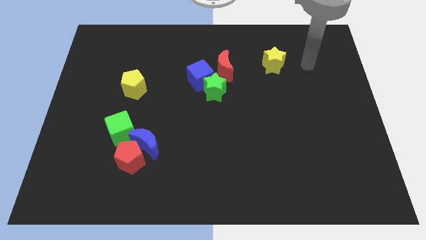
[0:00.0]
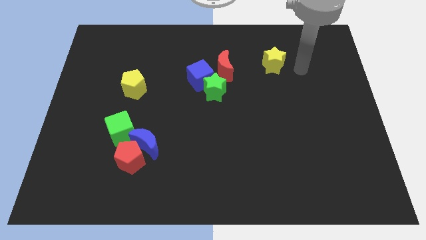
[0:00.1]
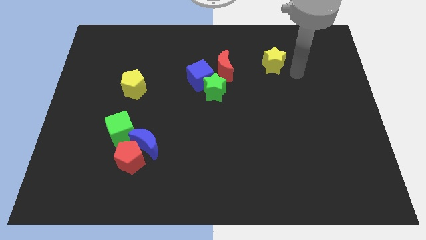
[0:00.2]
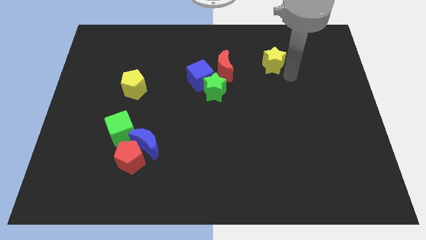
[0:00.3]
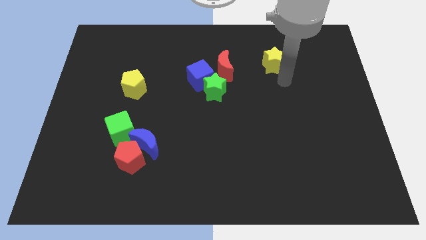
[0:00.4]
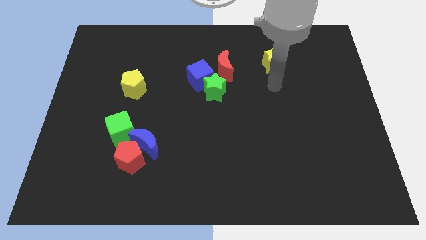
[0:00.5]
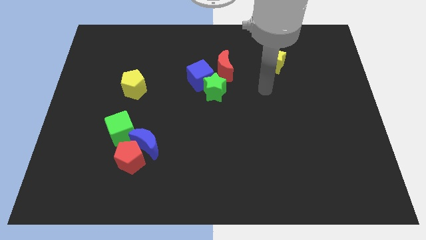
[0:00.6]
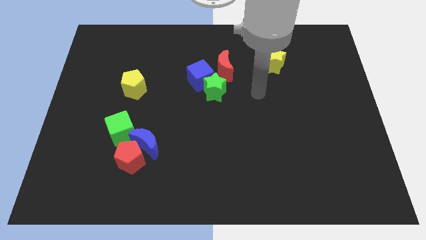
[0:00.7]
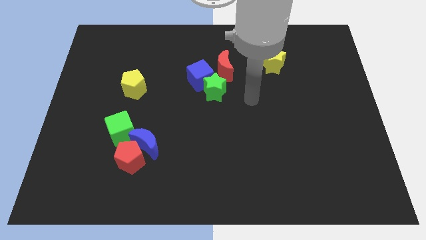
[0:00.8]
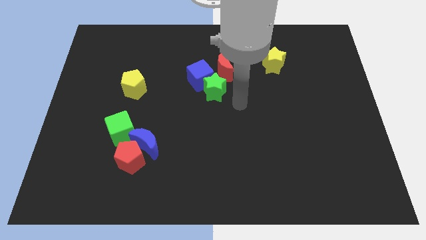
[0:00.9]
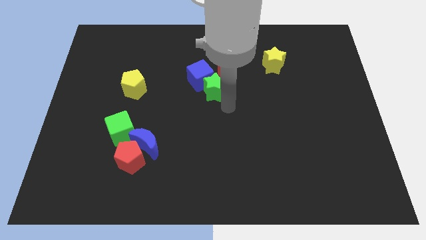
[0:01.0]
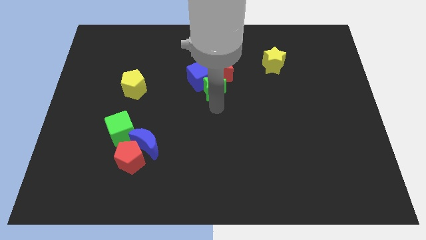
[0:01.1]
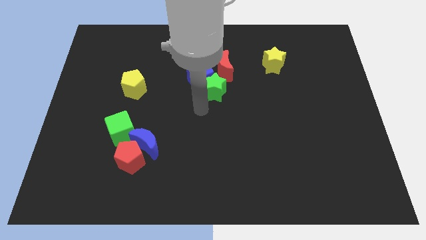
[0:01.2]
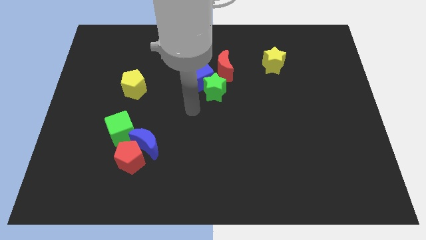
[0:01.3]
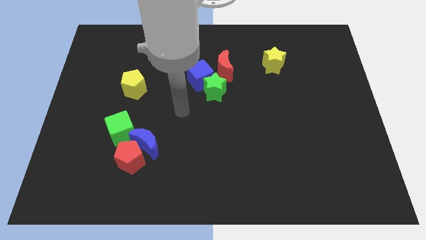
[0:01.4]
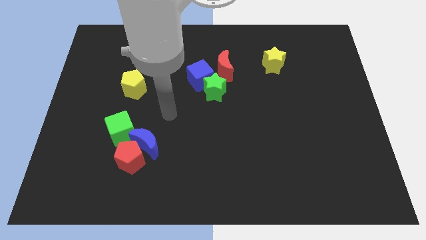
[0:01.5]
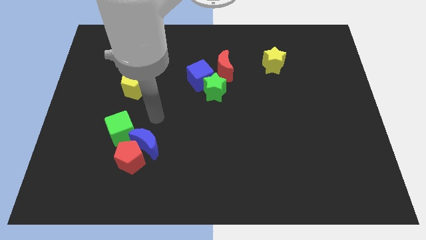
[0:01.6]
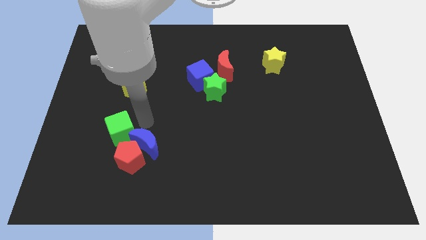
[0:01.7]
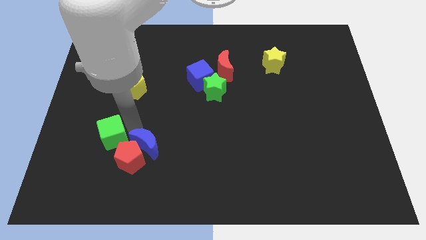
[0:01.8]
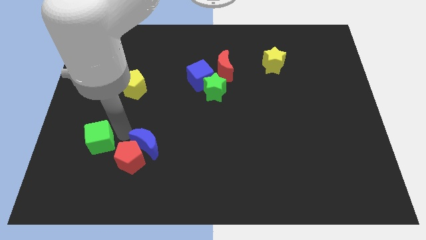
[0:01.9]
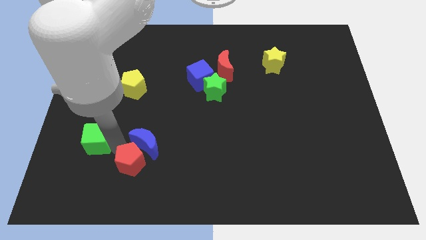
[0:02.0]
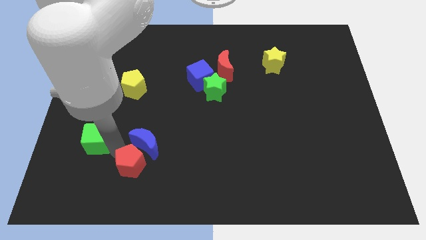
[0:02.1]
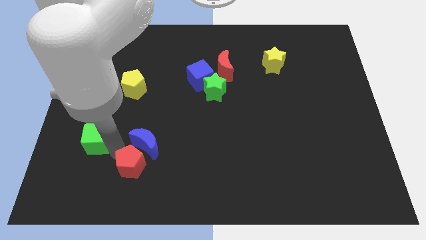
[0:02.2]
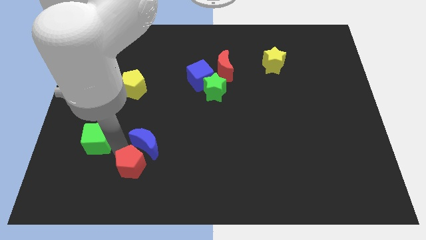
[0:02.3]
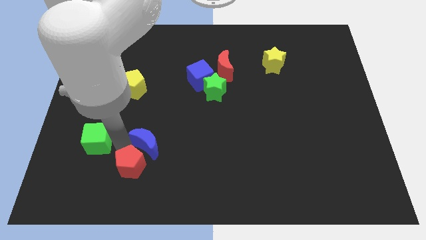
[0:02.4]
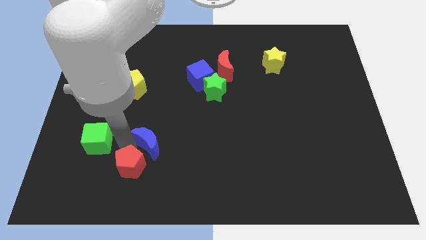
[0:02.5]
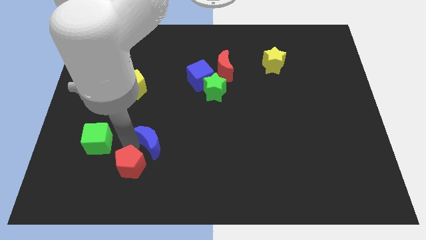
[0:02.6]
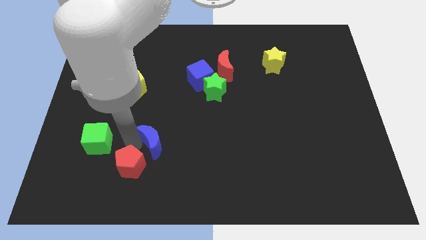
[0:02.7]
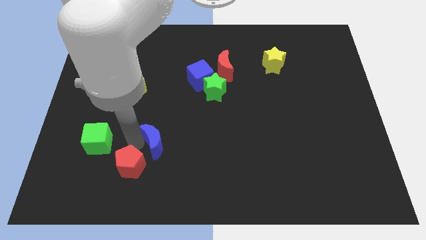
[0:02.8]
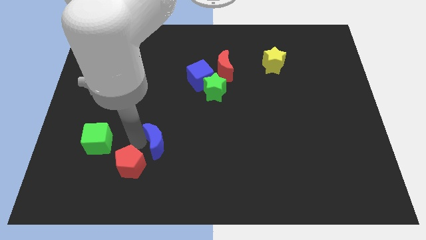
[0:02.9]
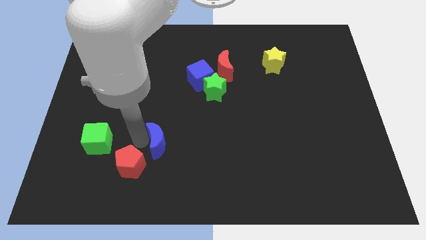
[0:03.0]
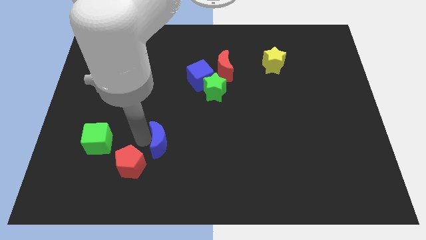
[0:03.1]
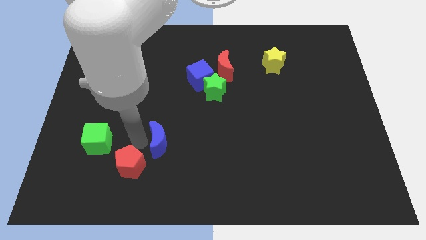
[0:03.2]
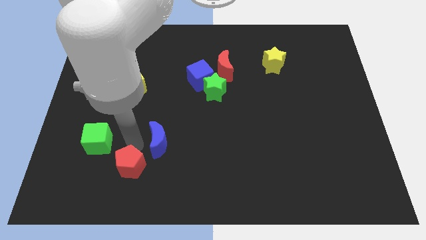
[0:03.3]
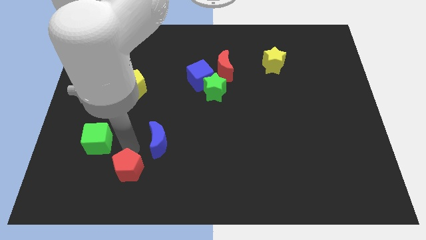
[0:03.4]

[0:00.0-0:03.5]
move the blue moon away from the red pentagon and green cube

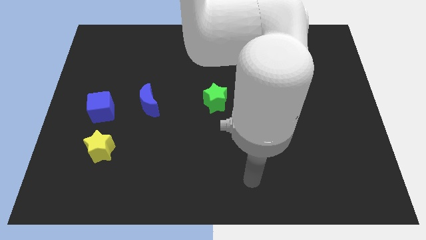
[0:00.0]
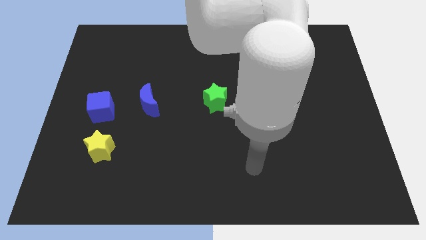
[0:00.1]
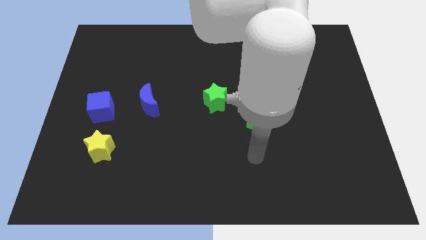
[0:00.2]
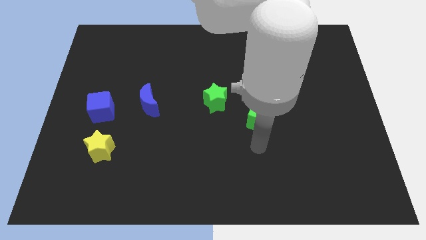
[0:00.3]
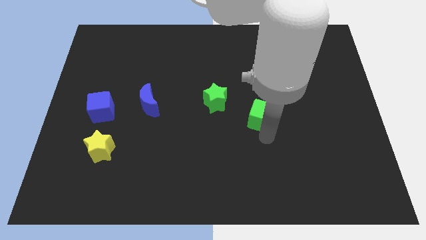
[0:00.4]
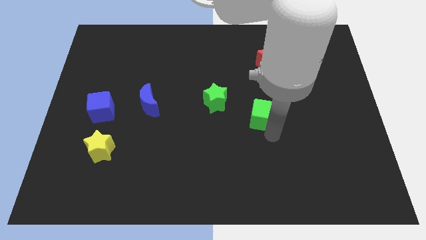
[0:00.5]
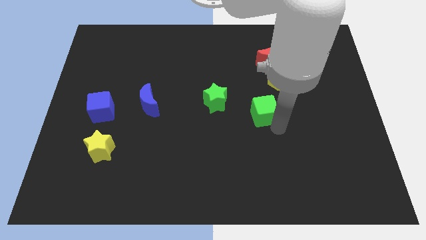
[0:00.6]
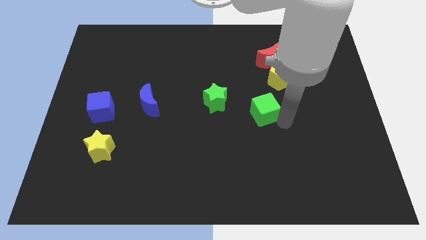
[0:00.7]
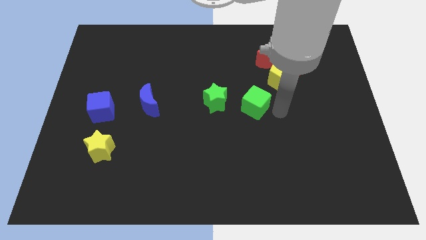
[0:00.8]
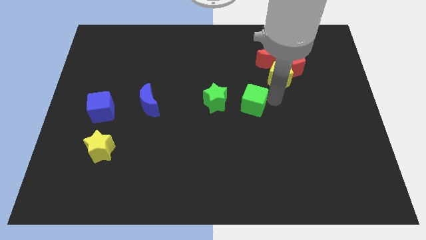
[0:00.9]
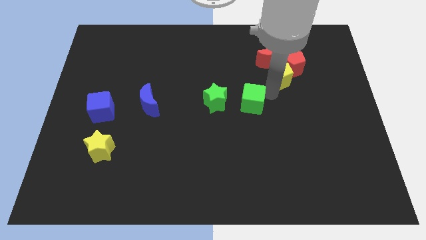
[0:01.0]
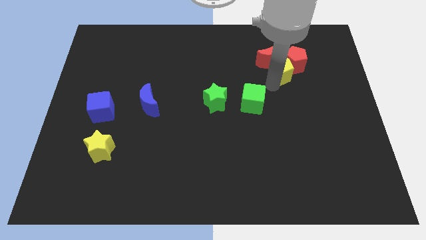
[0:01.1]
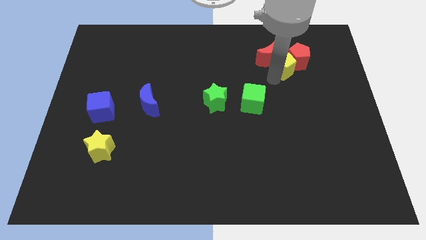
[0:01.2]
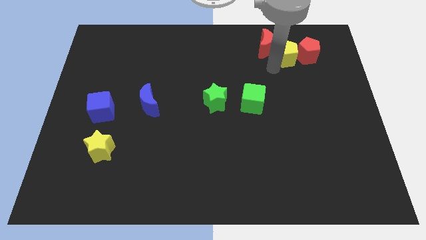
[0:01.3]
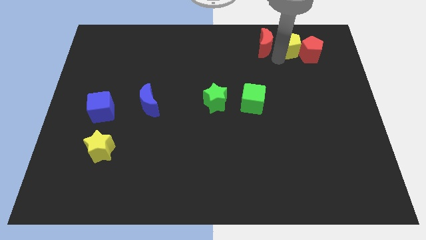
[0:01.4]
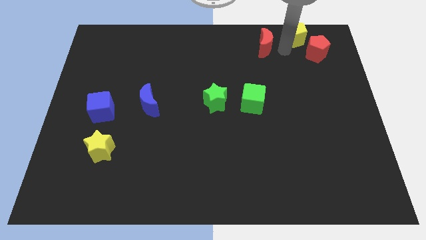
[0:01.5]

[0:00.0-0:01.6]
move the red pentagon away from the yellow pentagon and red moon

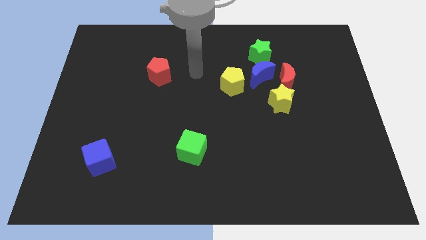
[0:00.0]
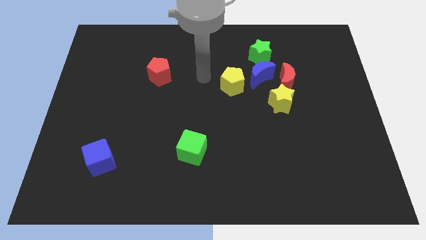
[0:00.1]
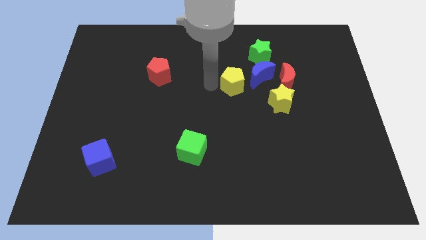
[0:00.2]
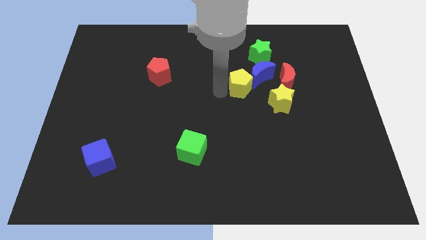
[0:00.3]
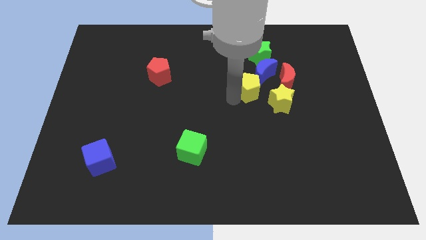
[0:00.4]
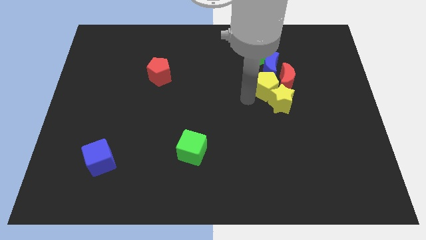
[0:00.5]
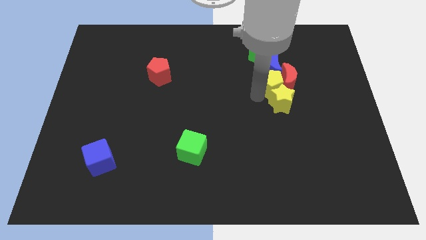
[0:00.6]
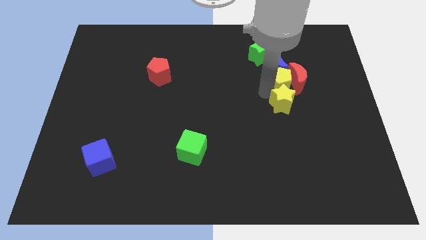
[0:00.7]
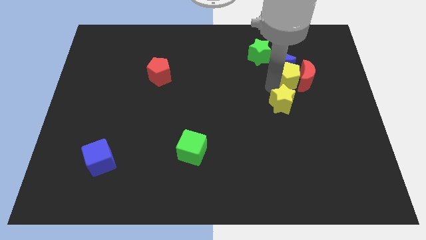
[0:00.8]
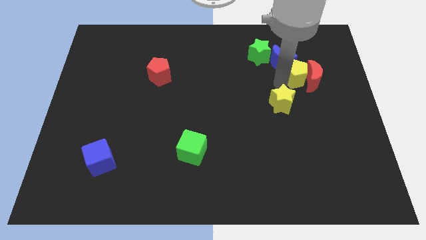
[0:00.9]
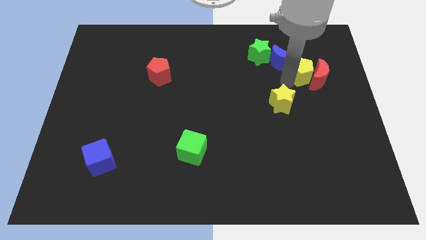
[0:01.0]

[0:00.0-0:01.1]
move the red moon away from the blue moon and yellow star

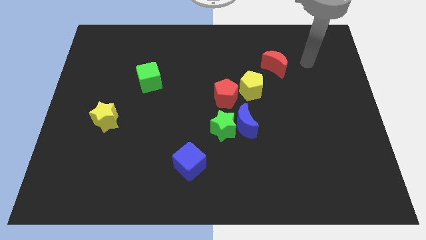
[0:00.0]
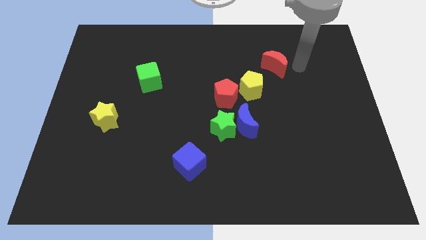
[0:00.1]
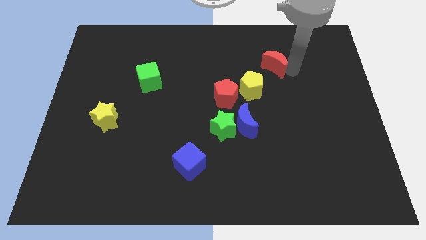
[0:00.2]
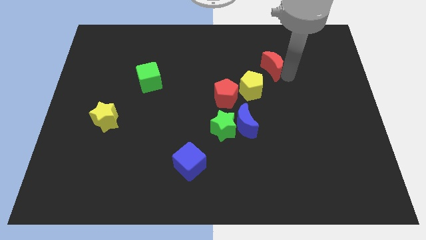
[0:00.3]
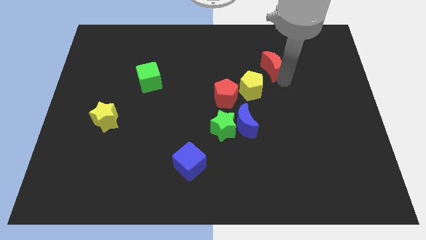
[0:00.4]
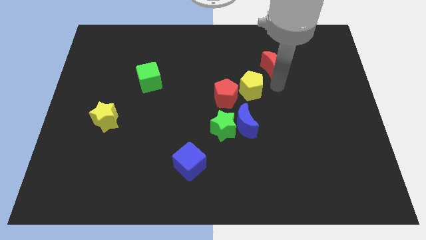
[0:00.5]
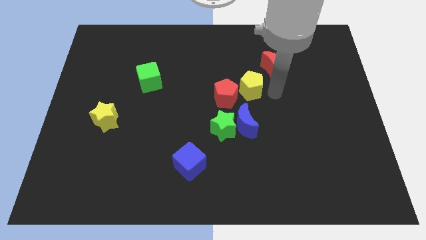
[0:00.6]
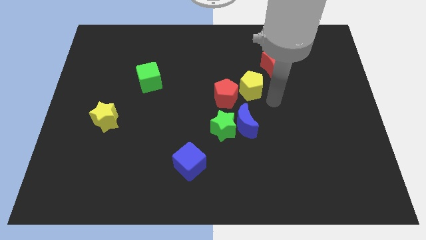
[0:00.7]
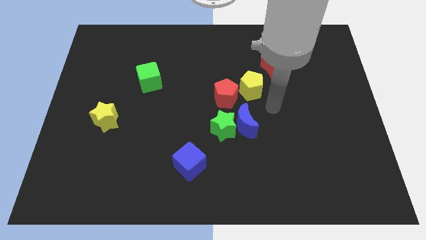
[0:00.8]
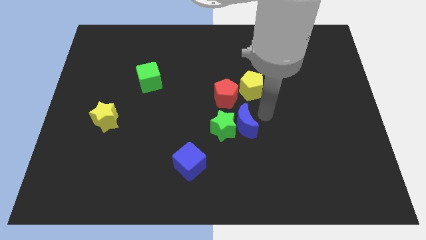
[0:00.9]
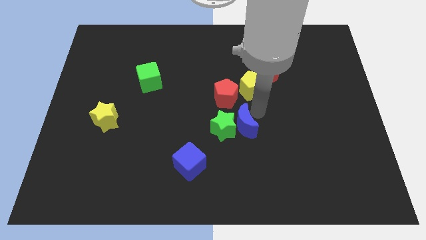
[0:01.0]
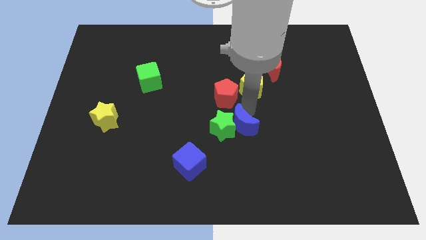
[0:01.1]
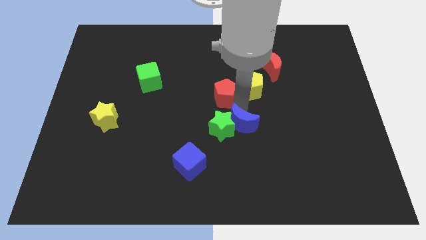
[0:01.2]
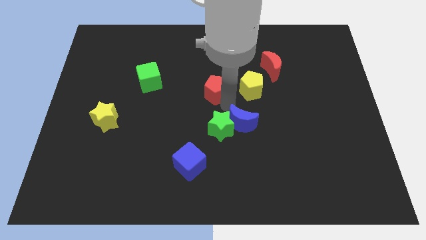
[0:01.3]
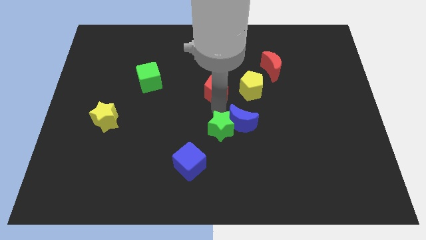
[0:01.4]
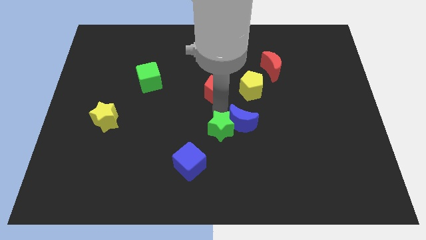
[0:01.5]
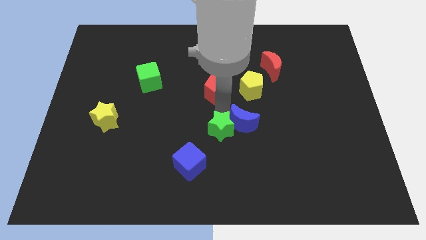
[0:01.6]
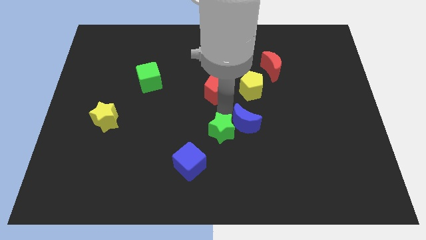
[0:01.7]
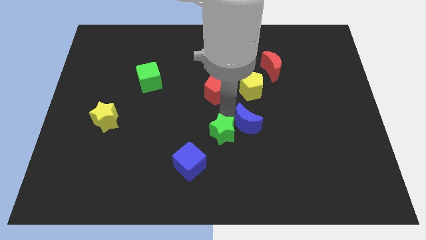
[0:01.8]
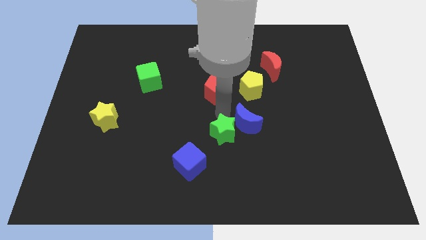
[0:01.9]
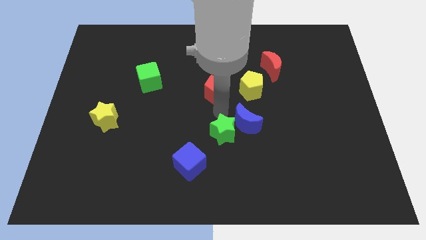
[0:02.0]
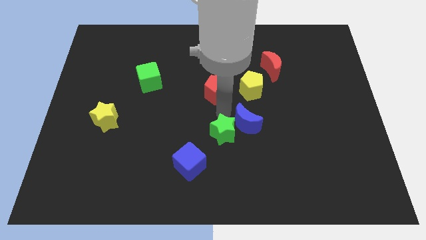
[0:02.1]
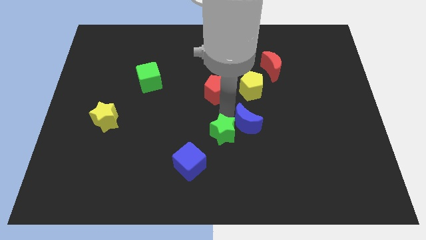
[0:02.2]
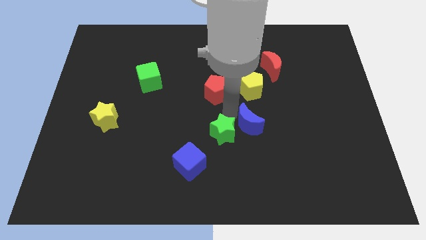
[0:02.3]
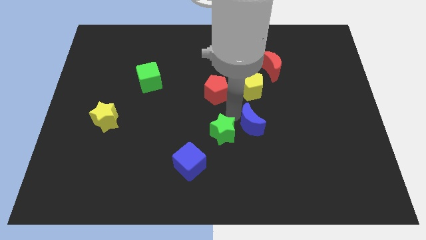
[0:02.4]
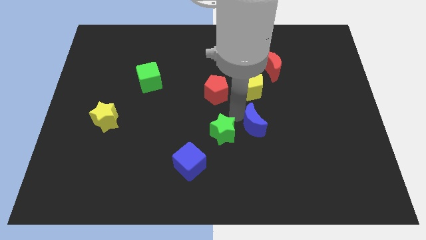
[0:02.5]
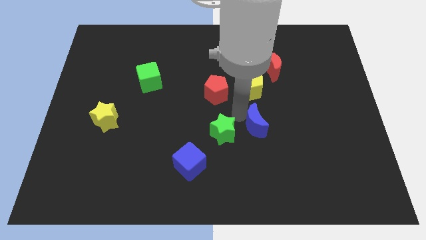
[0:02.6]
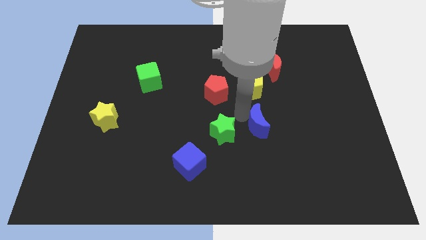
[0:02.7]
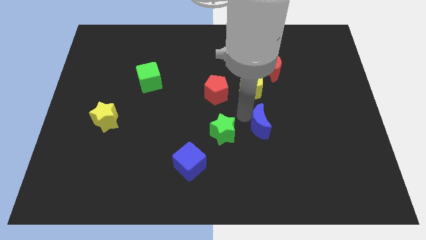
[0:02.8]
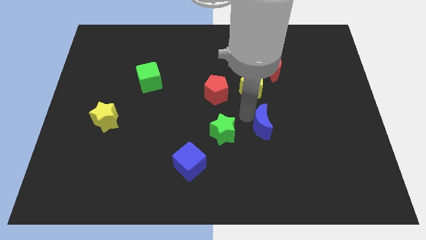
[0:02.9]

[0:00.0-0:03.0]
separate the blue moon from the green star and red pentagon
